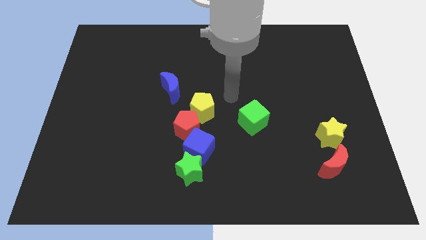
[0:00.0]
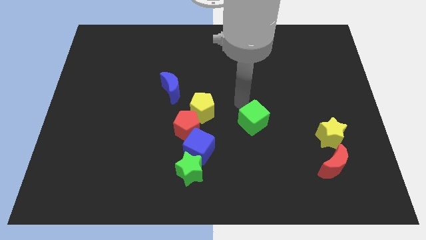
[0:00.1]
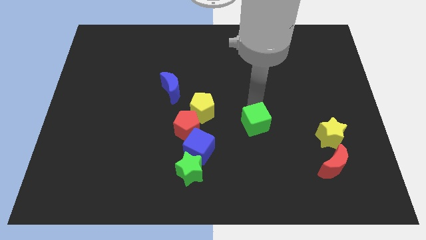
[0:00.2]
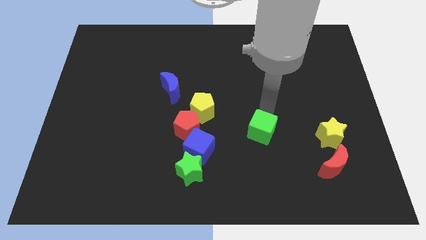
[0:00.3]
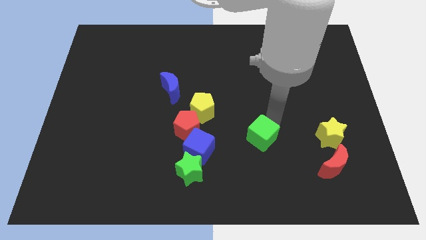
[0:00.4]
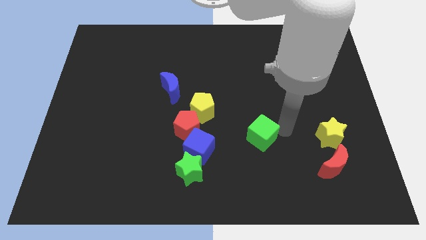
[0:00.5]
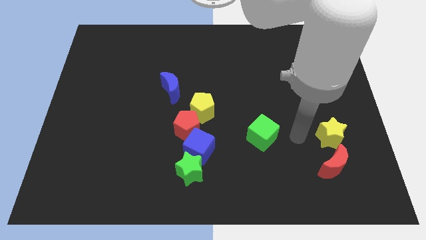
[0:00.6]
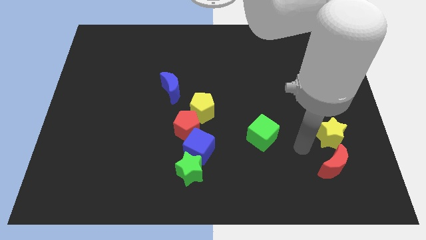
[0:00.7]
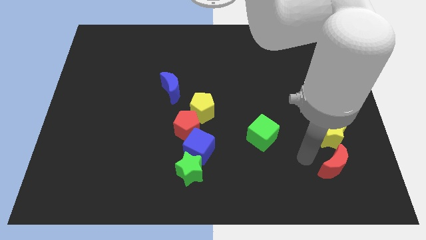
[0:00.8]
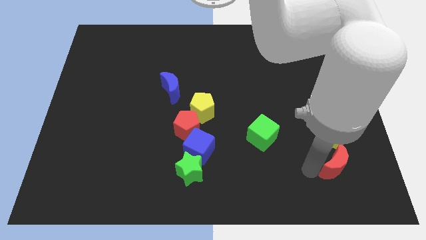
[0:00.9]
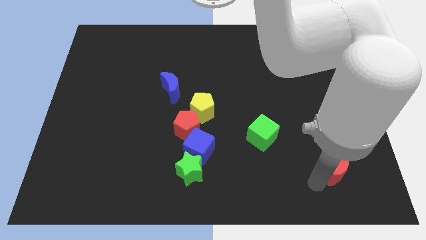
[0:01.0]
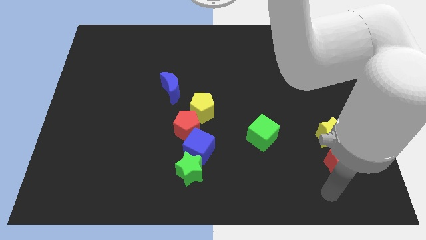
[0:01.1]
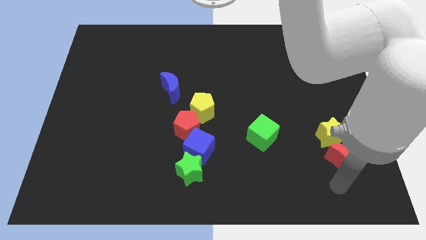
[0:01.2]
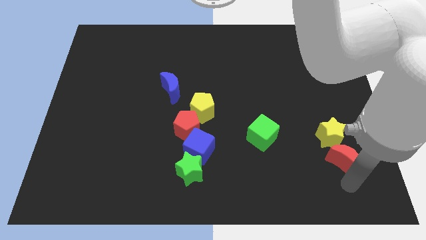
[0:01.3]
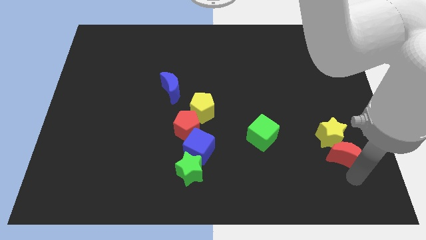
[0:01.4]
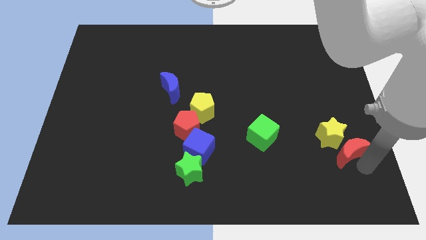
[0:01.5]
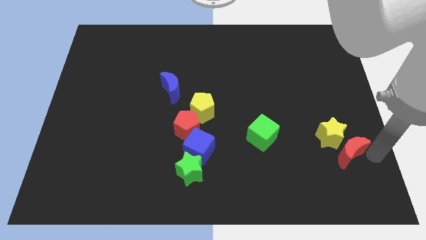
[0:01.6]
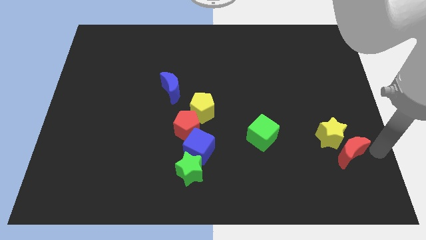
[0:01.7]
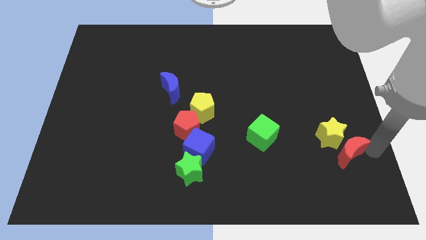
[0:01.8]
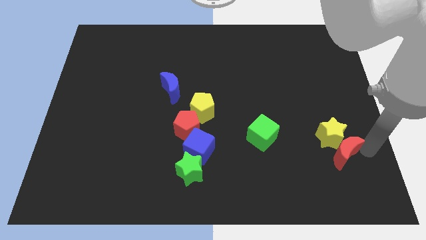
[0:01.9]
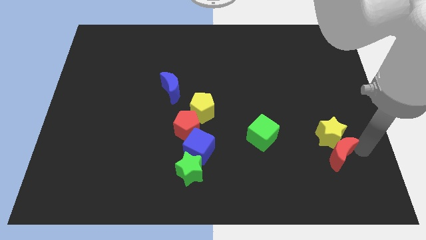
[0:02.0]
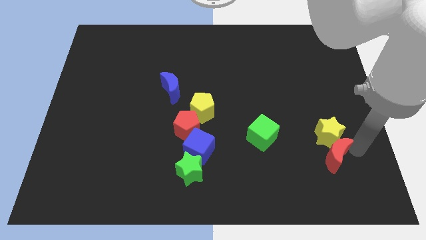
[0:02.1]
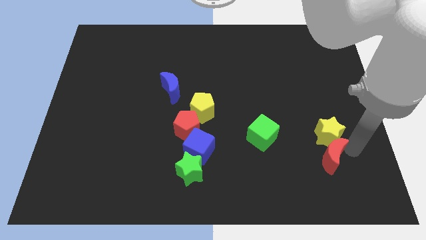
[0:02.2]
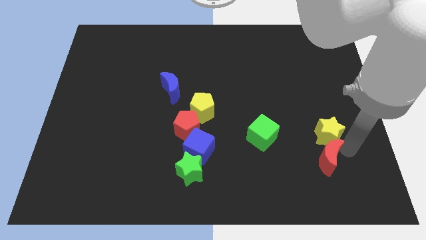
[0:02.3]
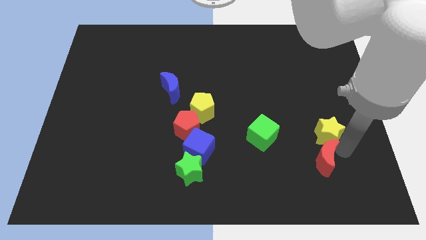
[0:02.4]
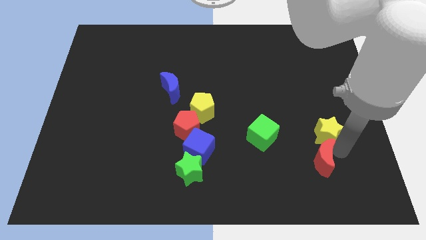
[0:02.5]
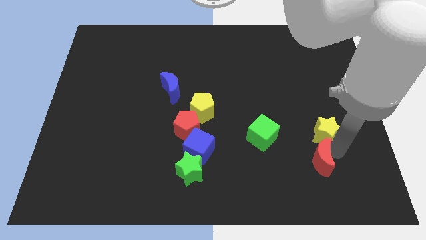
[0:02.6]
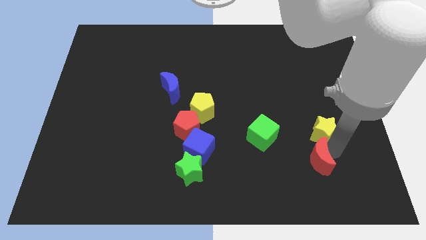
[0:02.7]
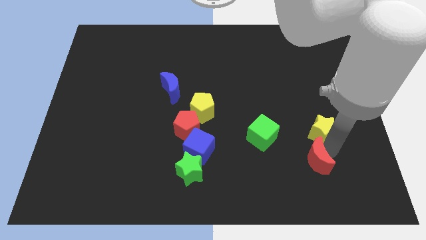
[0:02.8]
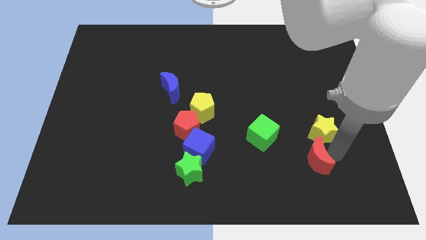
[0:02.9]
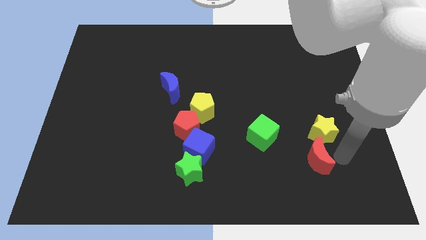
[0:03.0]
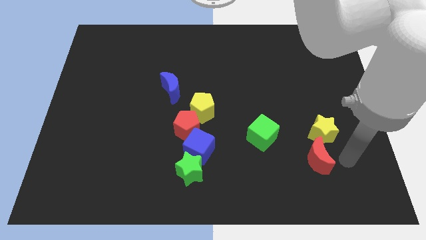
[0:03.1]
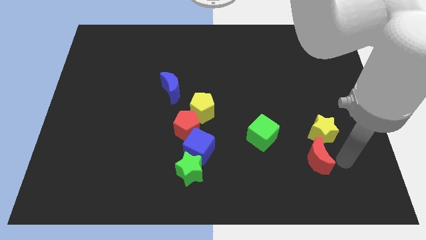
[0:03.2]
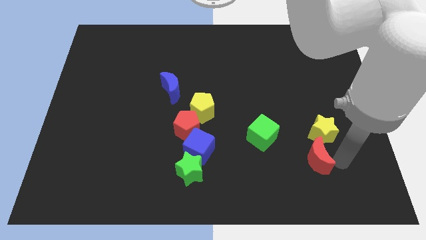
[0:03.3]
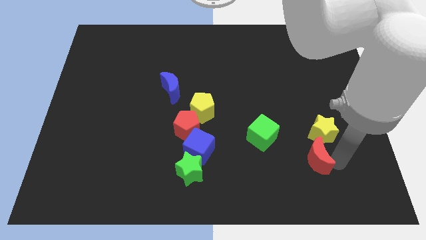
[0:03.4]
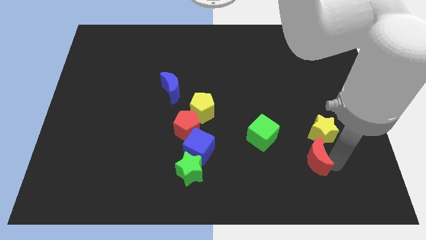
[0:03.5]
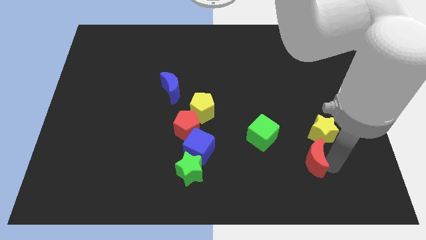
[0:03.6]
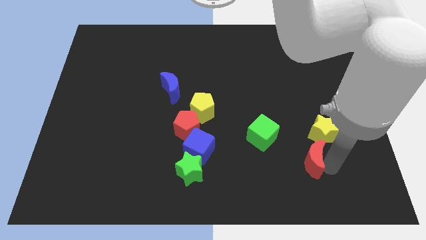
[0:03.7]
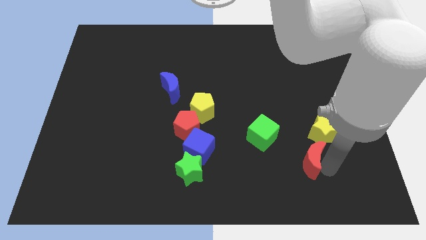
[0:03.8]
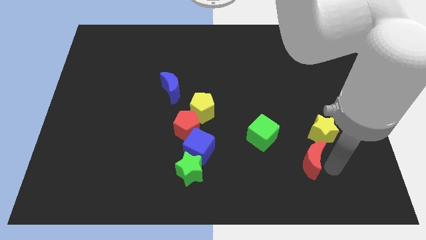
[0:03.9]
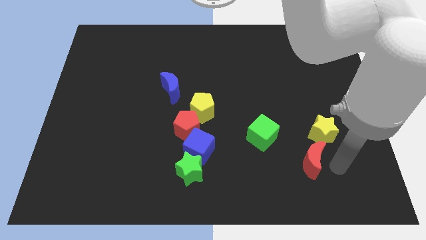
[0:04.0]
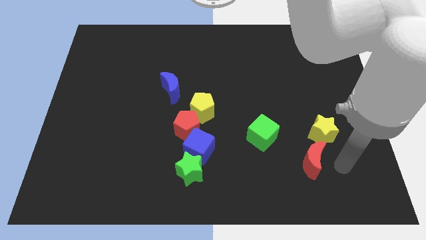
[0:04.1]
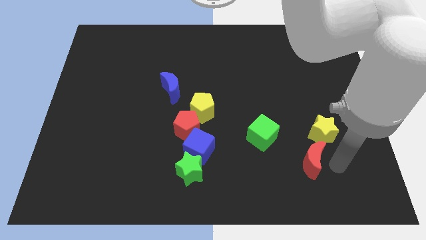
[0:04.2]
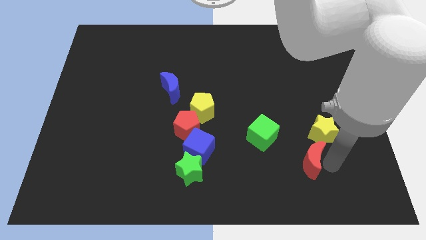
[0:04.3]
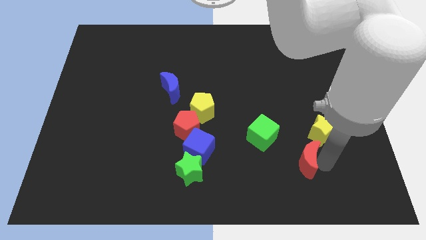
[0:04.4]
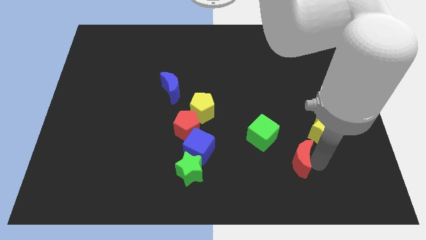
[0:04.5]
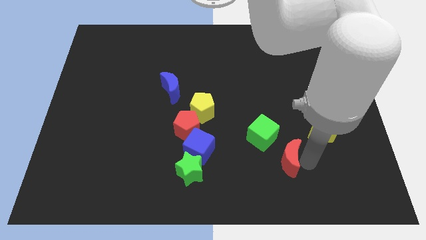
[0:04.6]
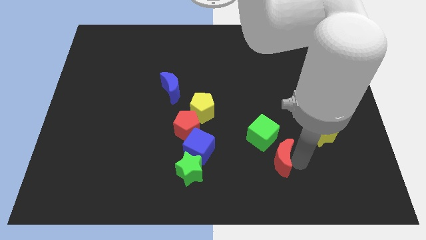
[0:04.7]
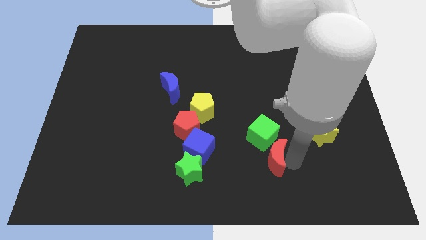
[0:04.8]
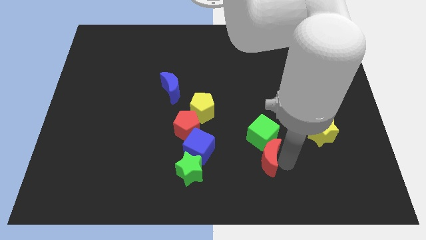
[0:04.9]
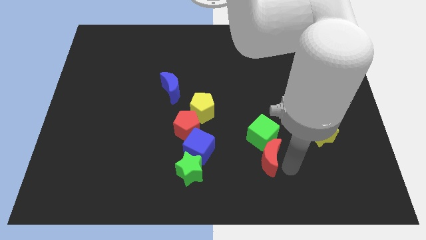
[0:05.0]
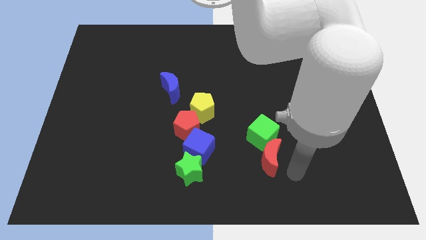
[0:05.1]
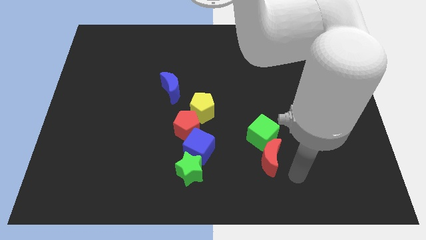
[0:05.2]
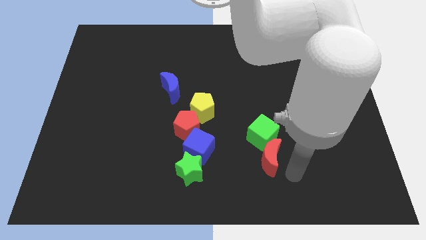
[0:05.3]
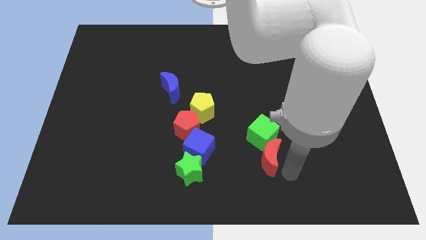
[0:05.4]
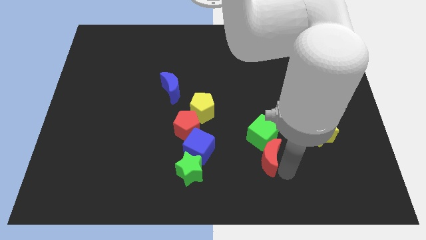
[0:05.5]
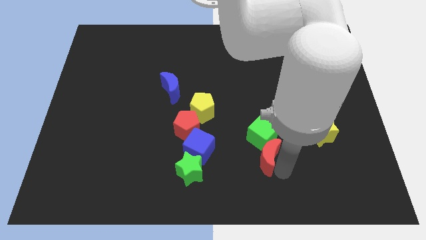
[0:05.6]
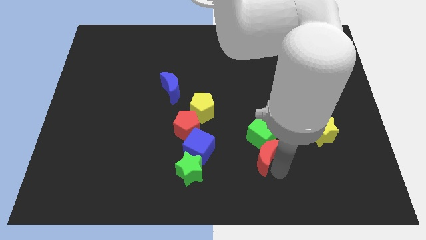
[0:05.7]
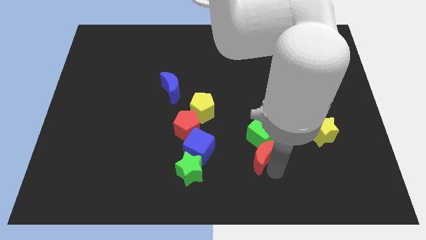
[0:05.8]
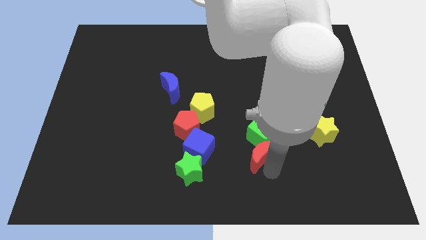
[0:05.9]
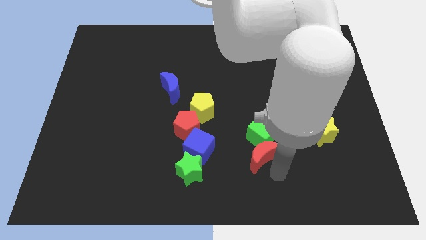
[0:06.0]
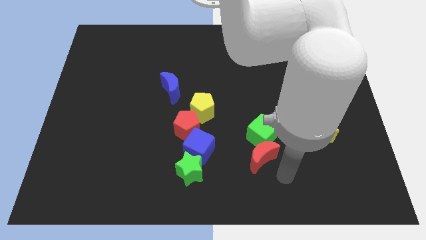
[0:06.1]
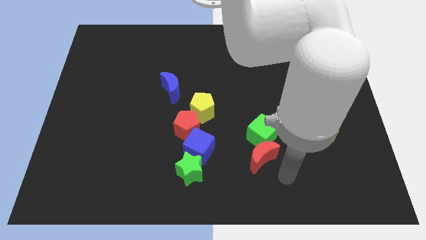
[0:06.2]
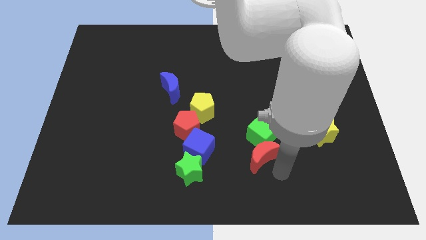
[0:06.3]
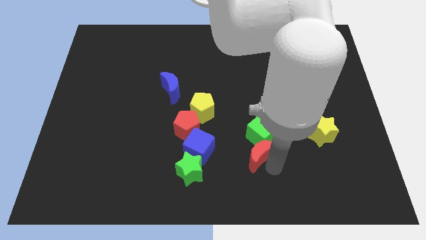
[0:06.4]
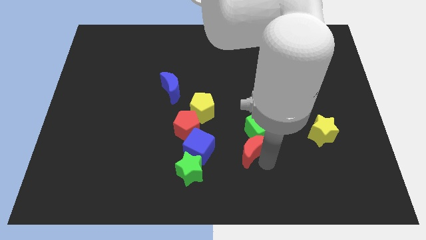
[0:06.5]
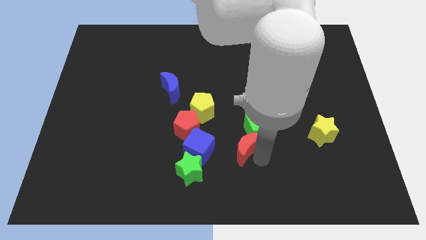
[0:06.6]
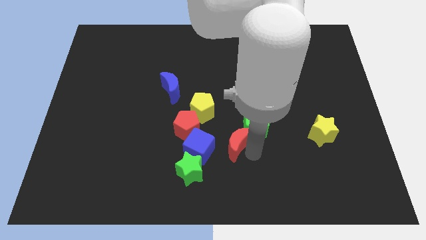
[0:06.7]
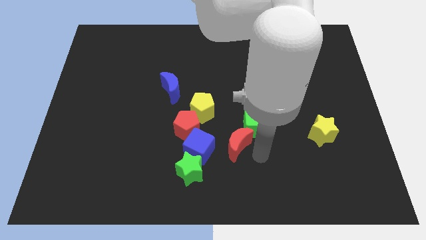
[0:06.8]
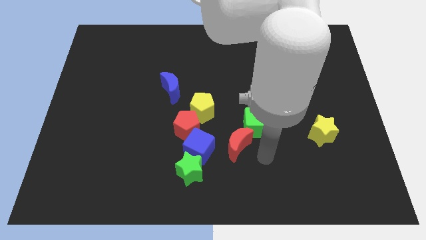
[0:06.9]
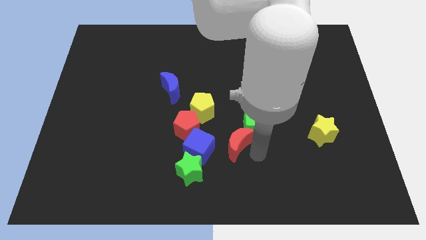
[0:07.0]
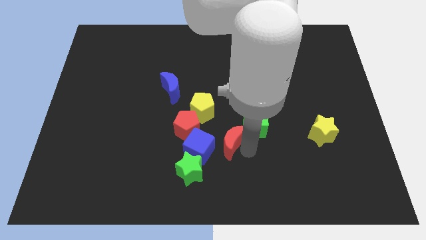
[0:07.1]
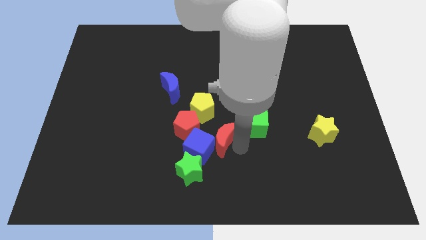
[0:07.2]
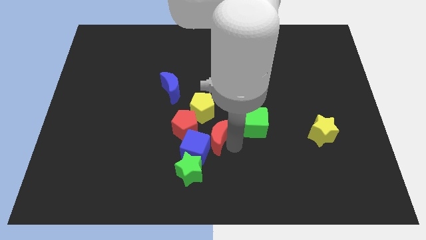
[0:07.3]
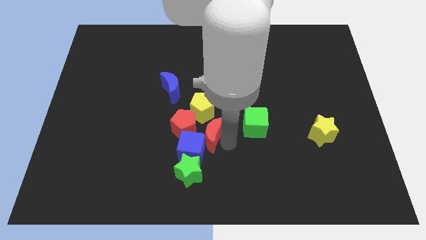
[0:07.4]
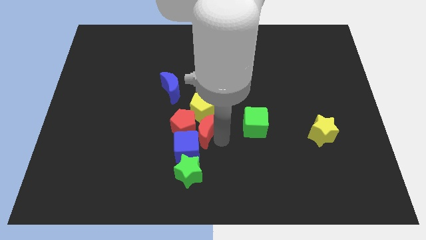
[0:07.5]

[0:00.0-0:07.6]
move the red moon to the red pentagon
